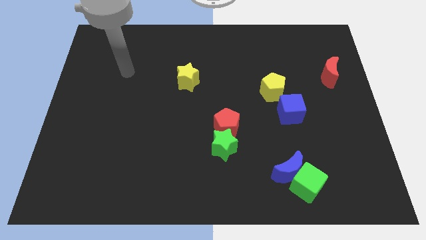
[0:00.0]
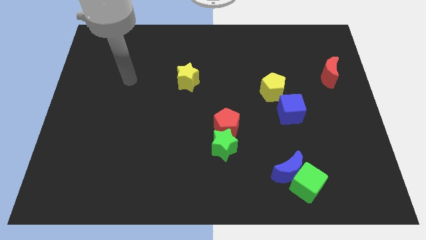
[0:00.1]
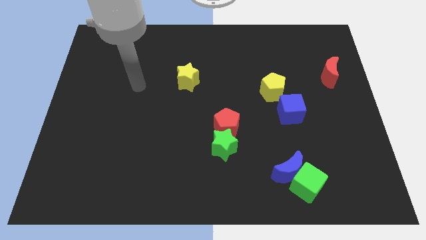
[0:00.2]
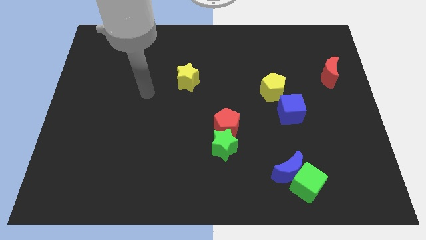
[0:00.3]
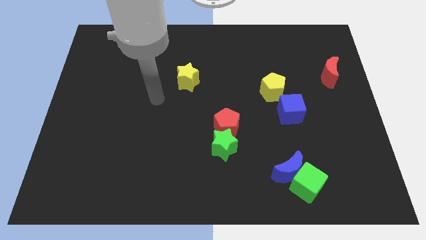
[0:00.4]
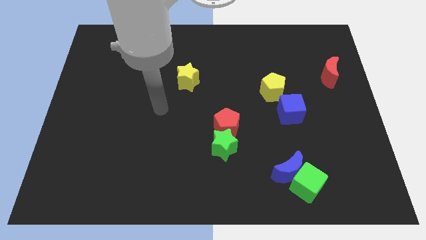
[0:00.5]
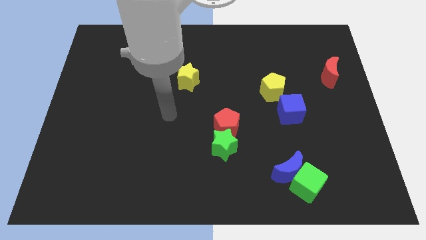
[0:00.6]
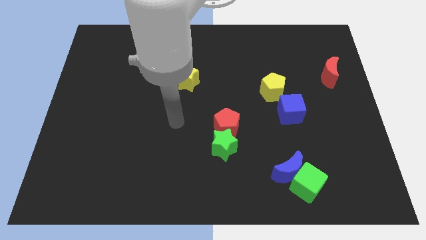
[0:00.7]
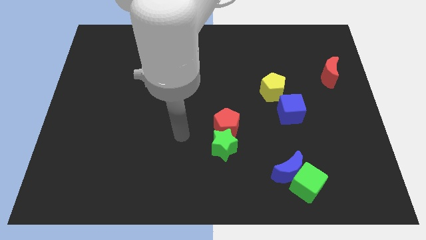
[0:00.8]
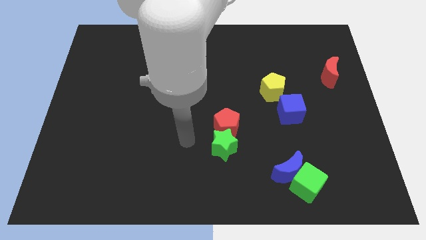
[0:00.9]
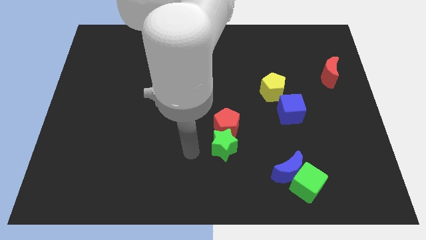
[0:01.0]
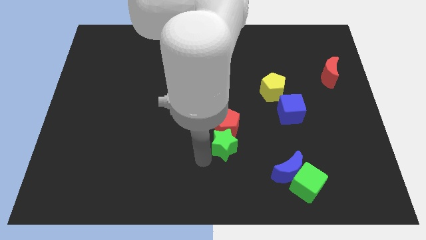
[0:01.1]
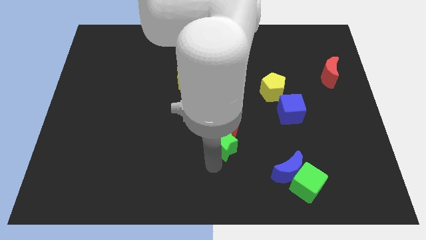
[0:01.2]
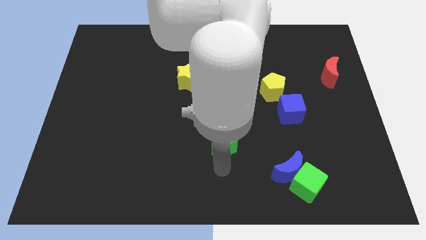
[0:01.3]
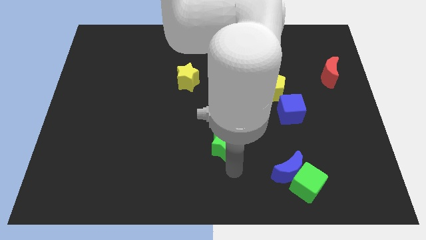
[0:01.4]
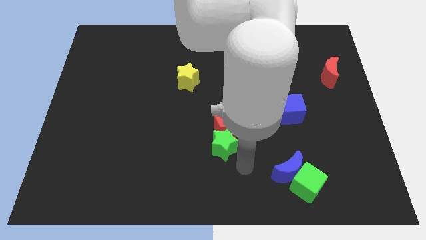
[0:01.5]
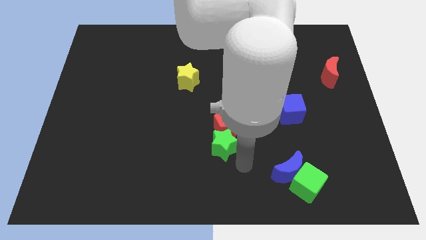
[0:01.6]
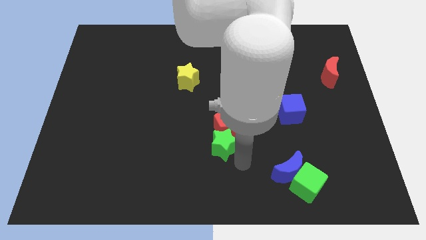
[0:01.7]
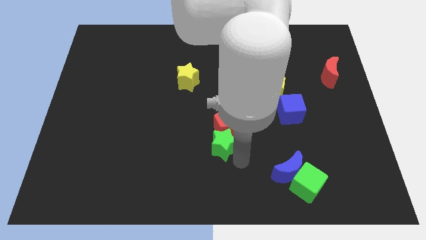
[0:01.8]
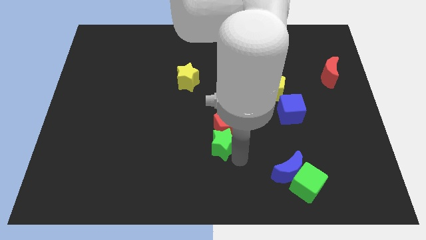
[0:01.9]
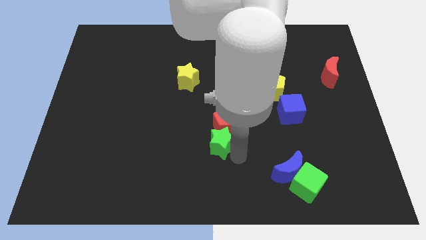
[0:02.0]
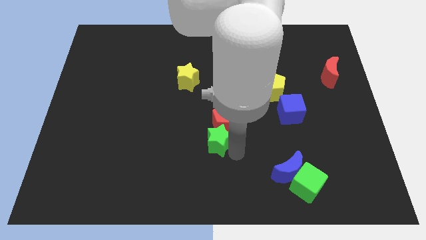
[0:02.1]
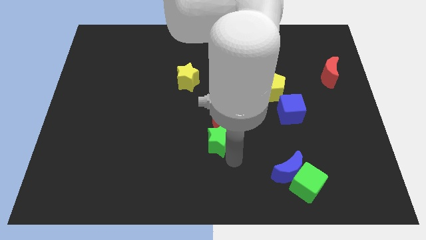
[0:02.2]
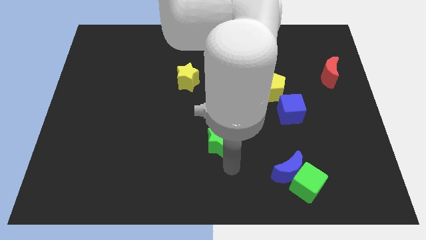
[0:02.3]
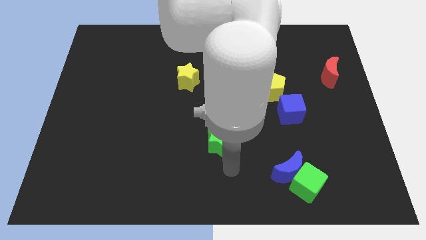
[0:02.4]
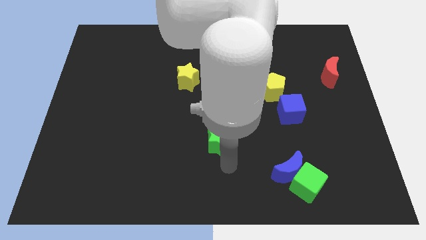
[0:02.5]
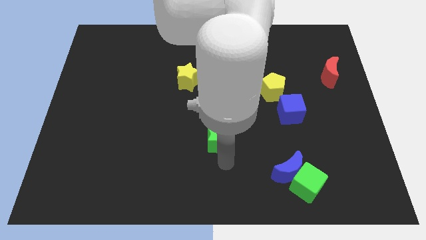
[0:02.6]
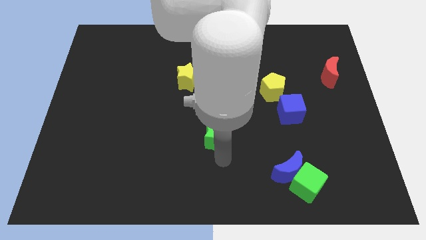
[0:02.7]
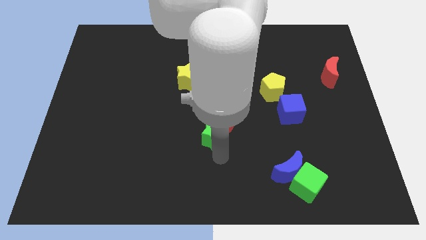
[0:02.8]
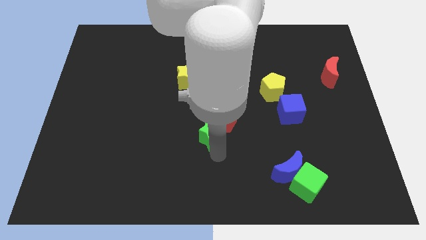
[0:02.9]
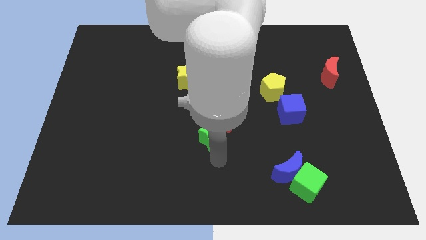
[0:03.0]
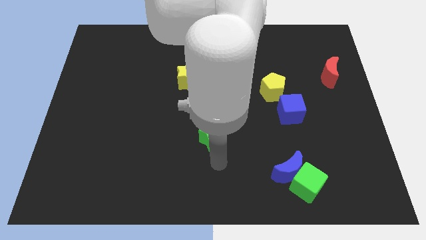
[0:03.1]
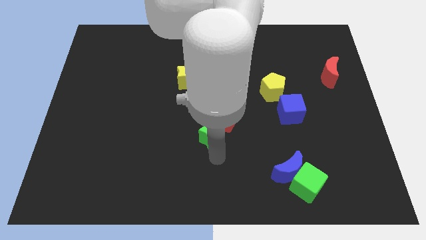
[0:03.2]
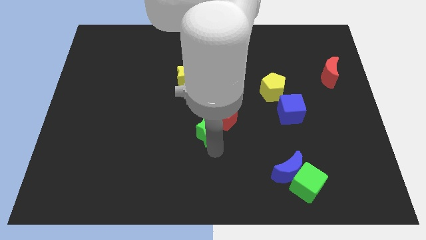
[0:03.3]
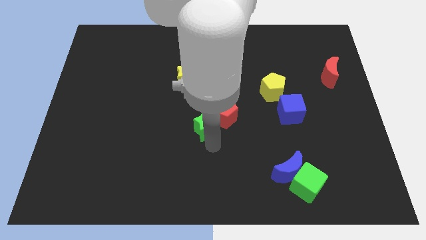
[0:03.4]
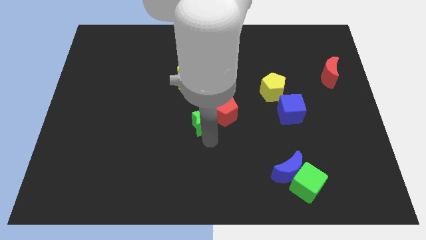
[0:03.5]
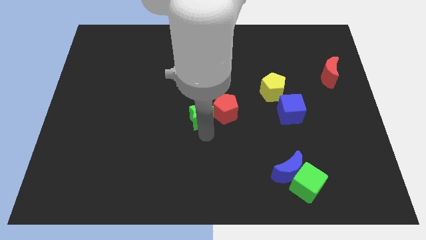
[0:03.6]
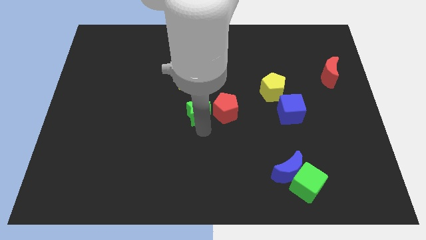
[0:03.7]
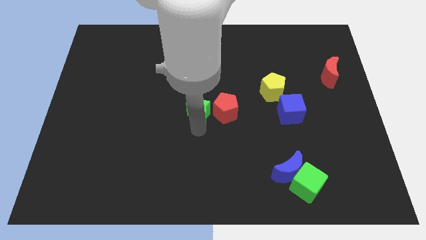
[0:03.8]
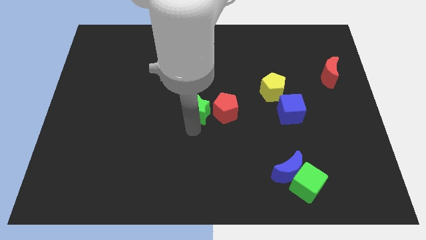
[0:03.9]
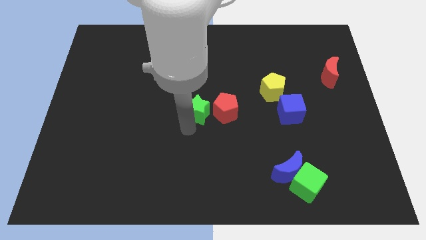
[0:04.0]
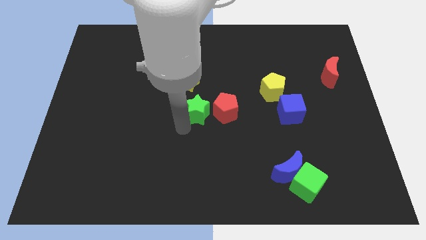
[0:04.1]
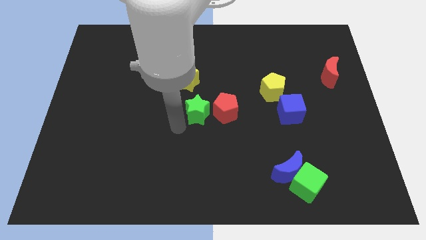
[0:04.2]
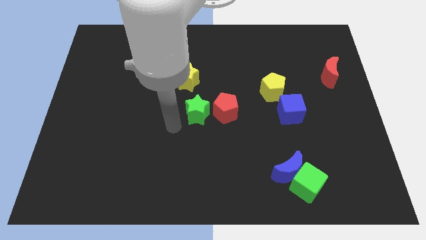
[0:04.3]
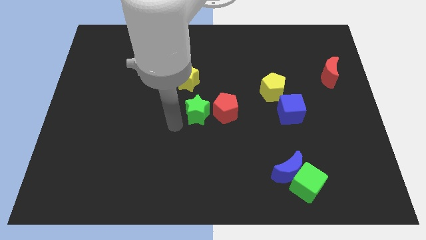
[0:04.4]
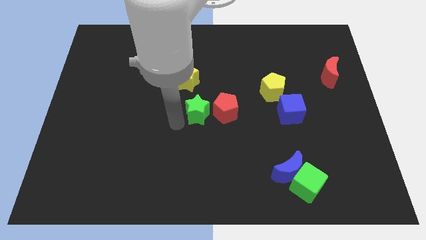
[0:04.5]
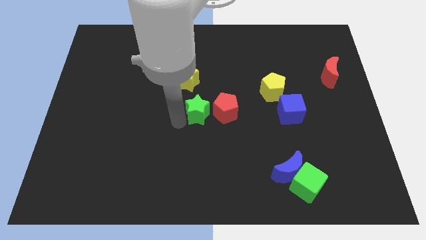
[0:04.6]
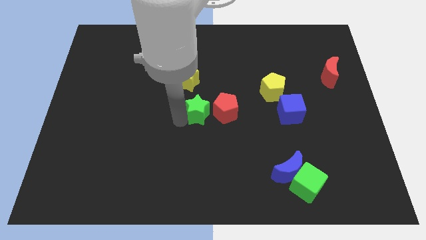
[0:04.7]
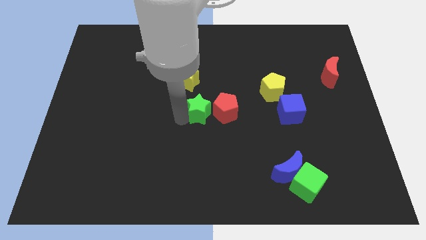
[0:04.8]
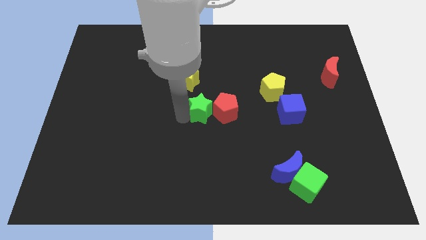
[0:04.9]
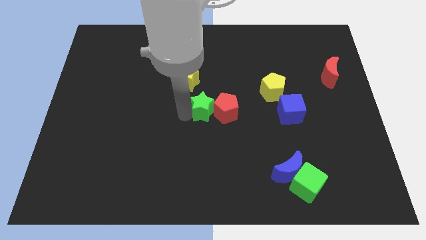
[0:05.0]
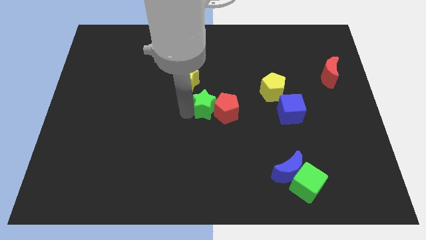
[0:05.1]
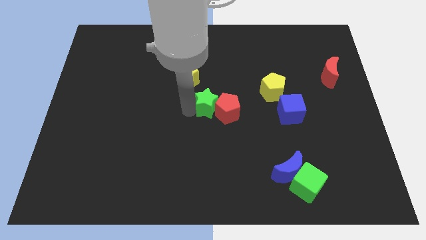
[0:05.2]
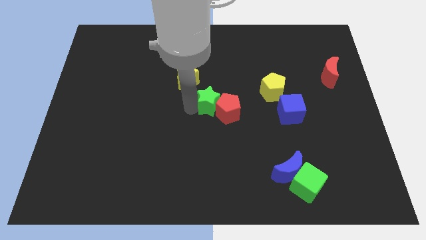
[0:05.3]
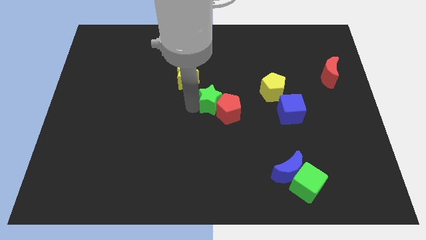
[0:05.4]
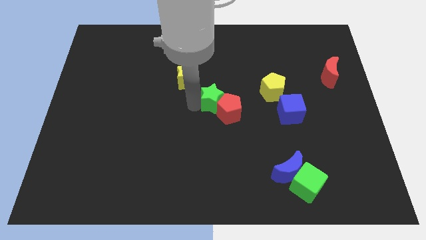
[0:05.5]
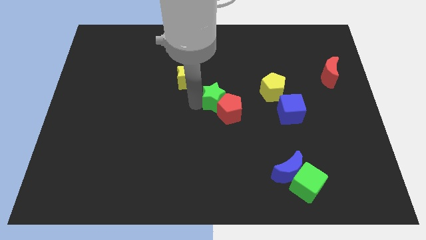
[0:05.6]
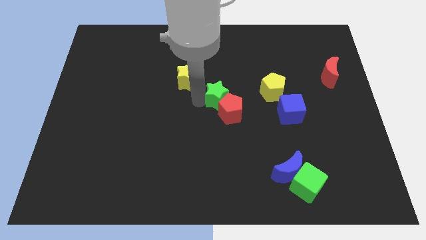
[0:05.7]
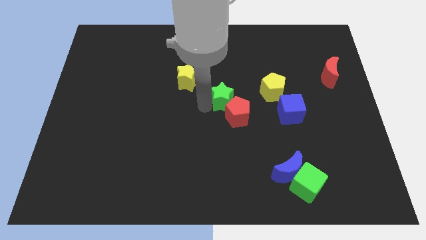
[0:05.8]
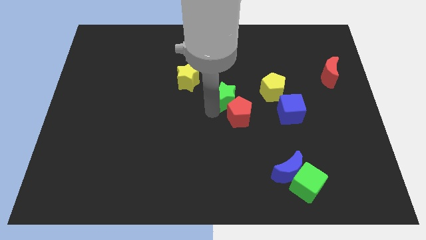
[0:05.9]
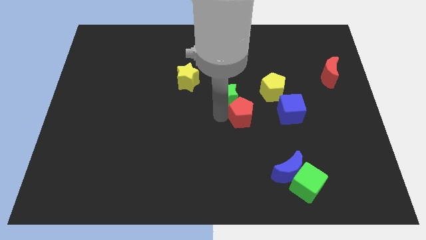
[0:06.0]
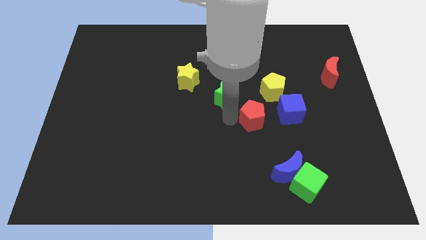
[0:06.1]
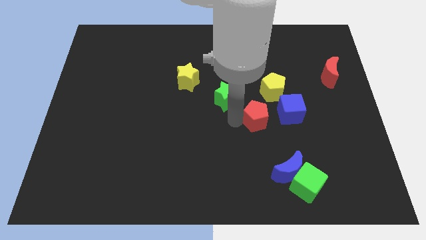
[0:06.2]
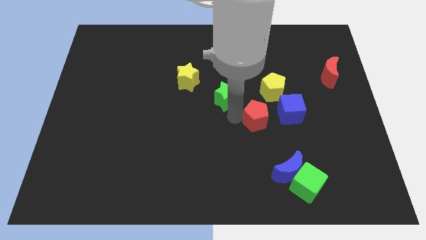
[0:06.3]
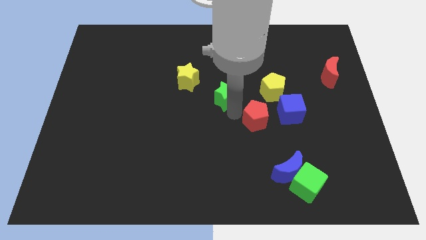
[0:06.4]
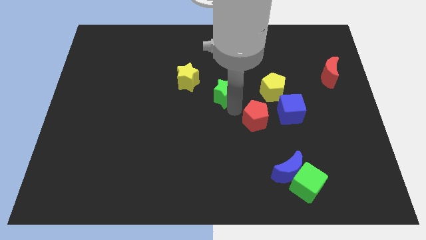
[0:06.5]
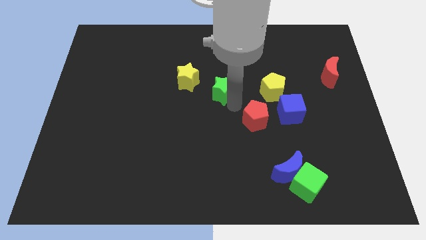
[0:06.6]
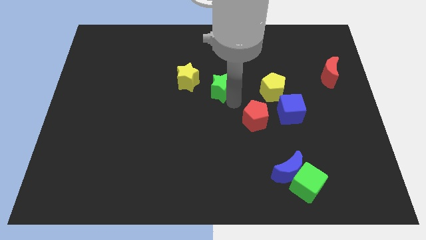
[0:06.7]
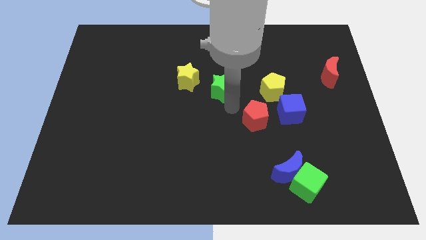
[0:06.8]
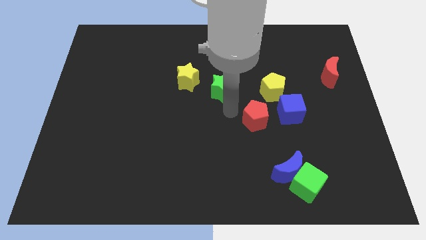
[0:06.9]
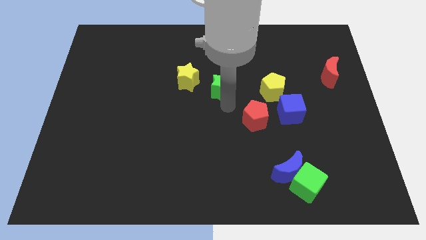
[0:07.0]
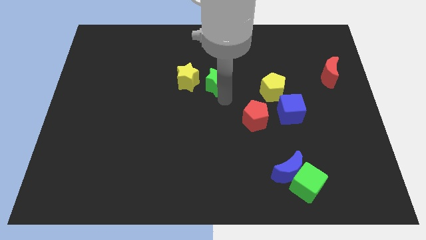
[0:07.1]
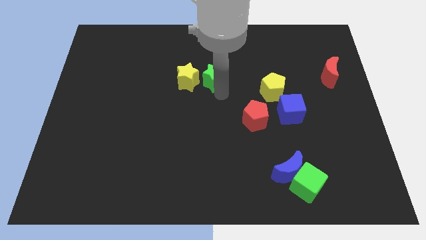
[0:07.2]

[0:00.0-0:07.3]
push the green star to the top right of the yellow star

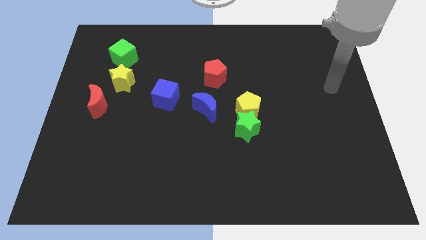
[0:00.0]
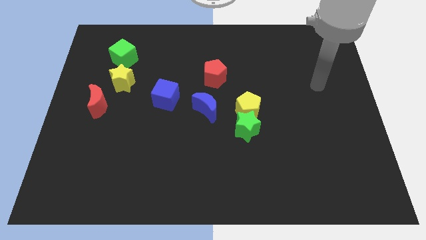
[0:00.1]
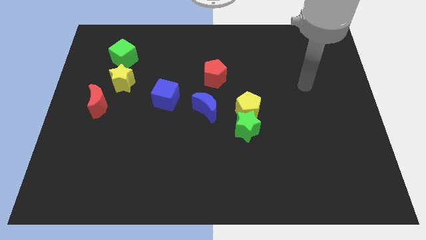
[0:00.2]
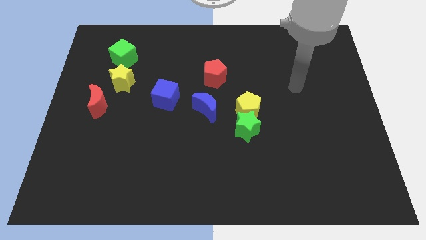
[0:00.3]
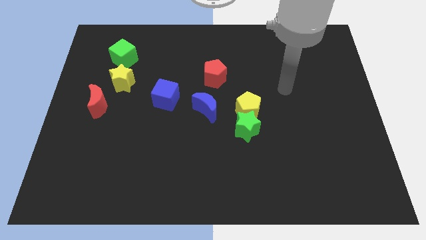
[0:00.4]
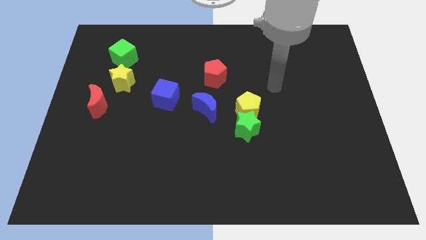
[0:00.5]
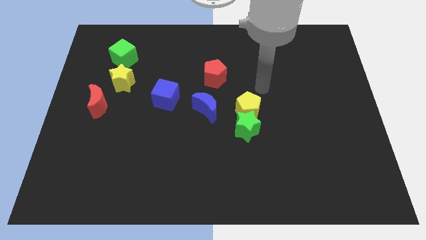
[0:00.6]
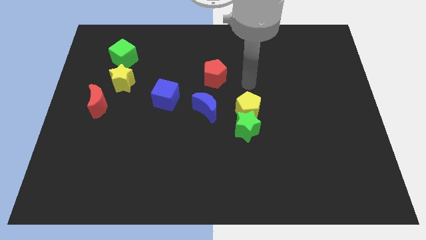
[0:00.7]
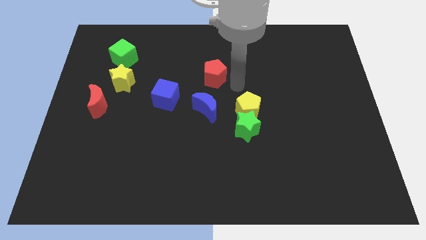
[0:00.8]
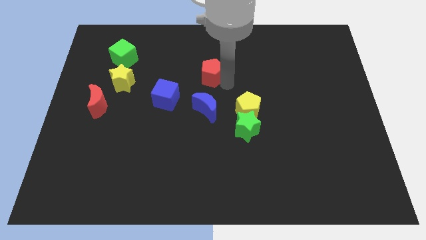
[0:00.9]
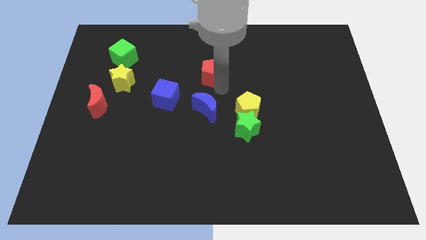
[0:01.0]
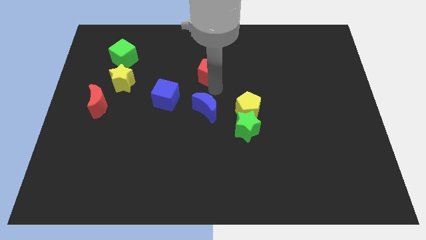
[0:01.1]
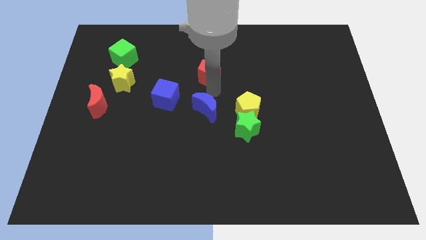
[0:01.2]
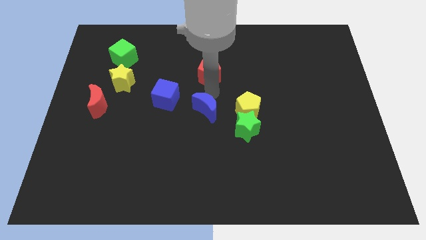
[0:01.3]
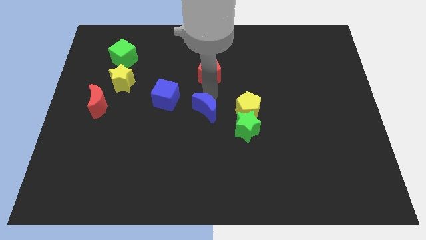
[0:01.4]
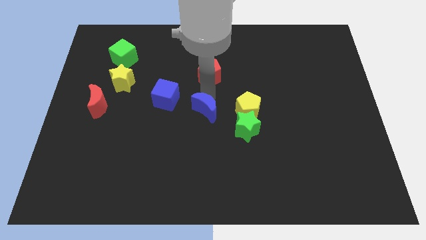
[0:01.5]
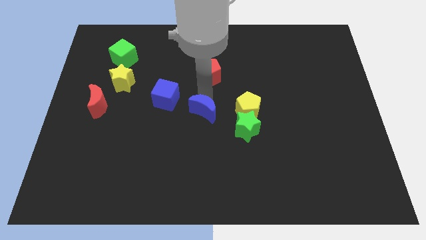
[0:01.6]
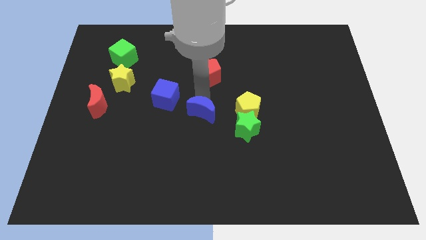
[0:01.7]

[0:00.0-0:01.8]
slide the blue moon to the left of the green star
